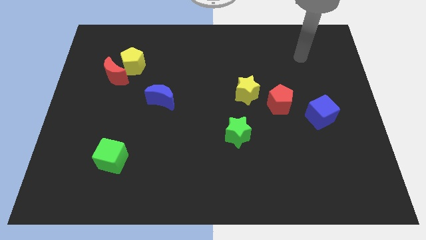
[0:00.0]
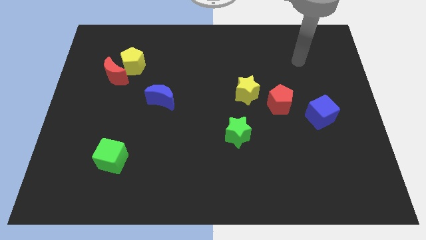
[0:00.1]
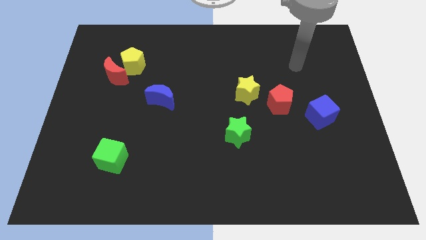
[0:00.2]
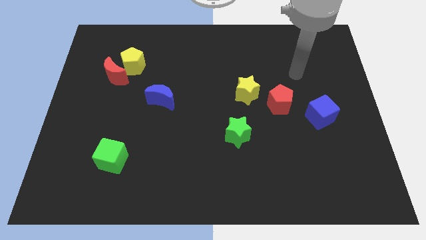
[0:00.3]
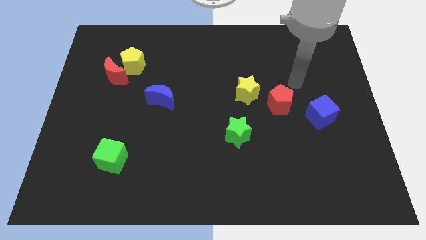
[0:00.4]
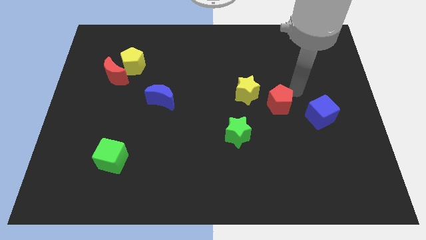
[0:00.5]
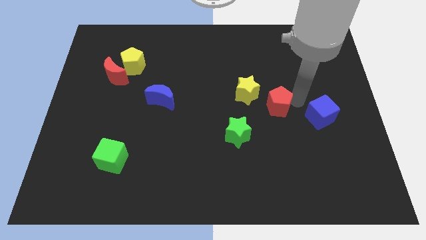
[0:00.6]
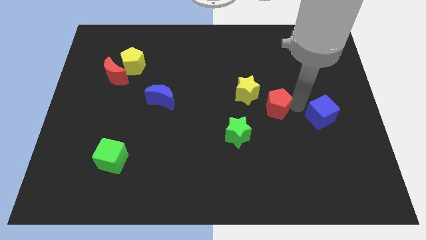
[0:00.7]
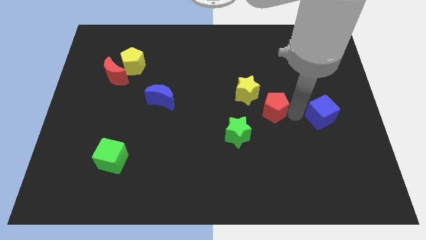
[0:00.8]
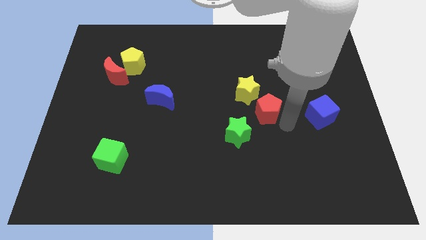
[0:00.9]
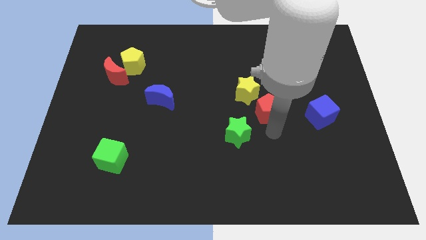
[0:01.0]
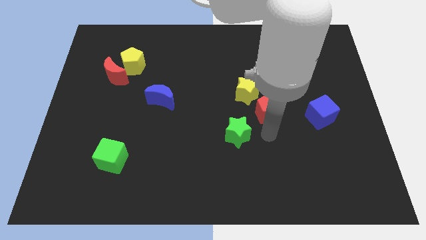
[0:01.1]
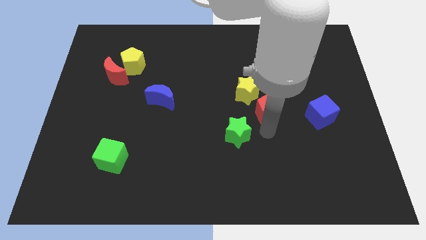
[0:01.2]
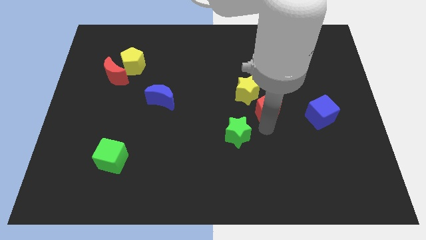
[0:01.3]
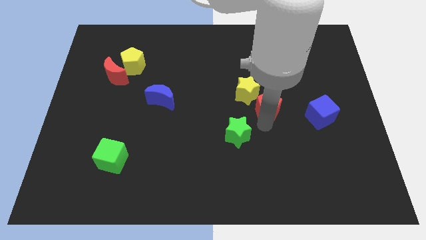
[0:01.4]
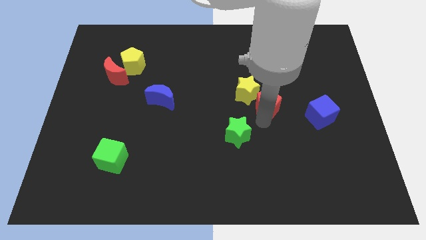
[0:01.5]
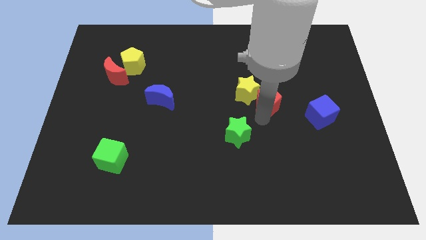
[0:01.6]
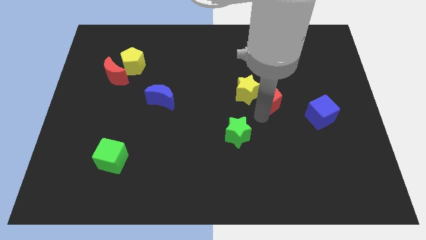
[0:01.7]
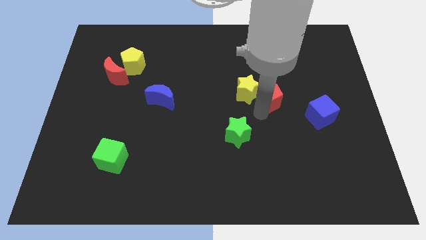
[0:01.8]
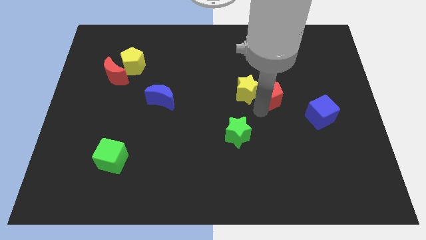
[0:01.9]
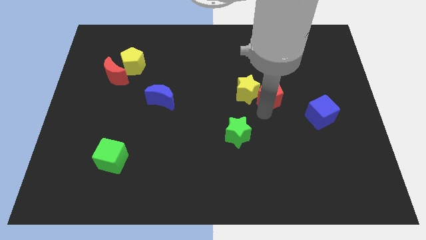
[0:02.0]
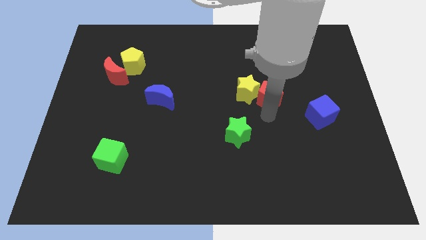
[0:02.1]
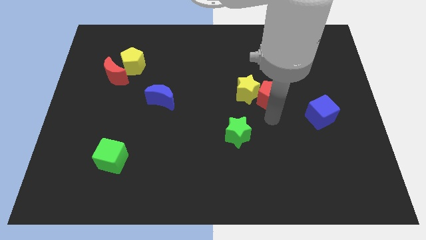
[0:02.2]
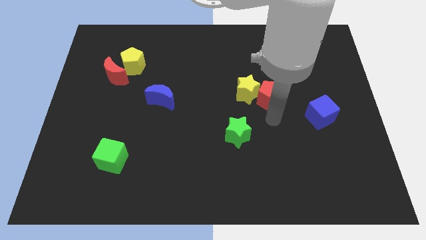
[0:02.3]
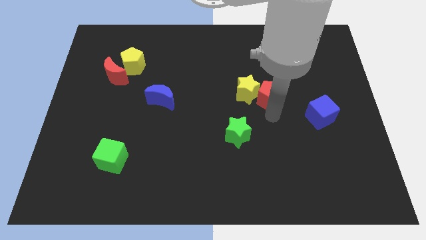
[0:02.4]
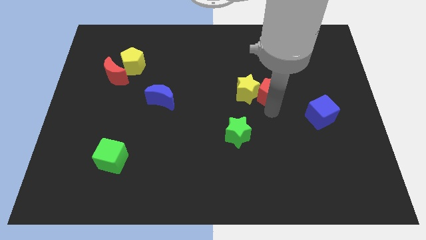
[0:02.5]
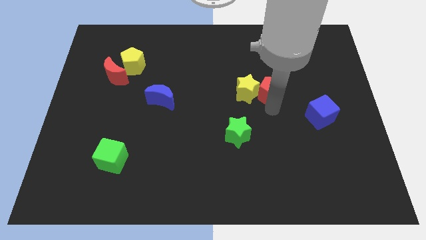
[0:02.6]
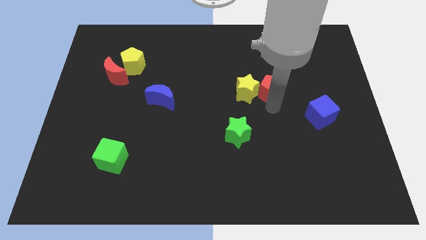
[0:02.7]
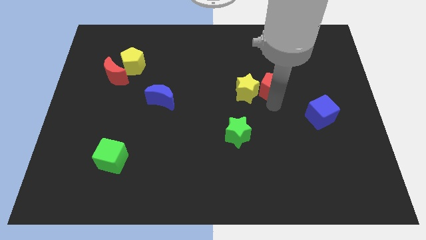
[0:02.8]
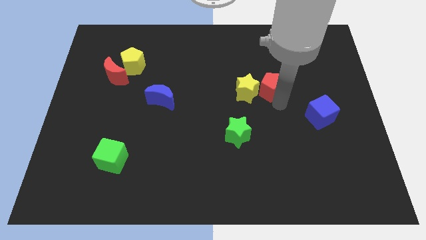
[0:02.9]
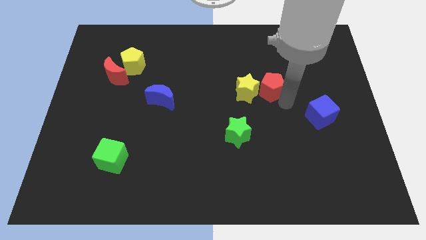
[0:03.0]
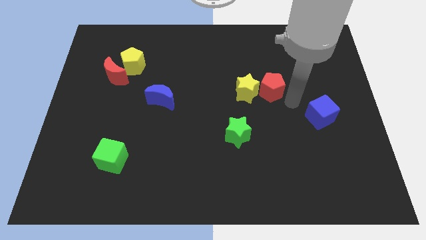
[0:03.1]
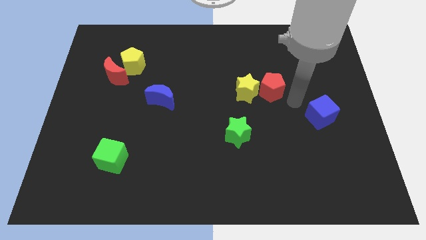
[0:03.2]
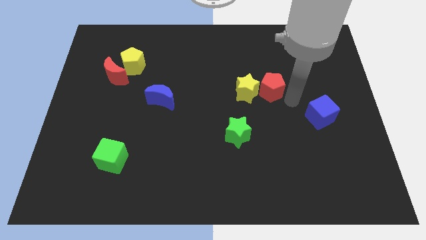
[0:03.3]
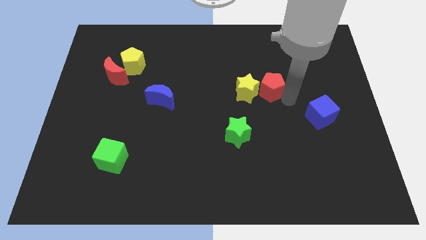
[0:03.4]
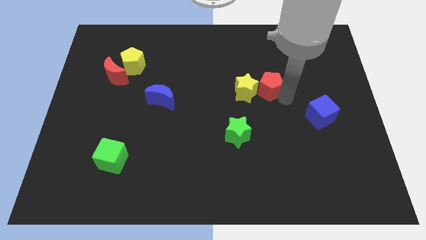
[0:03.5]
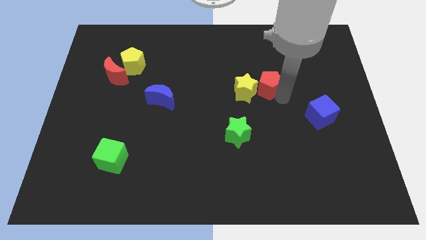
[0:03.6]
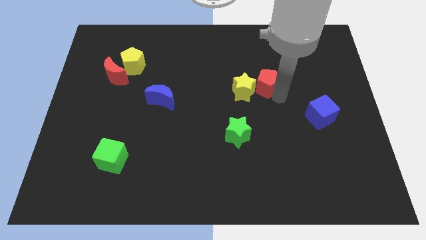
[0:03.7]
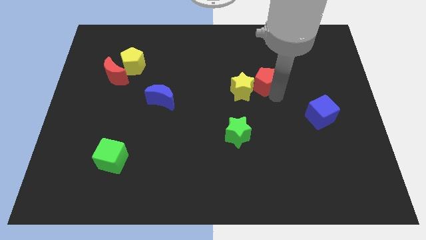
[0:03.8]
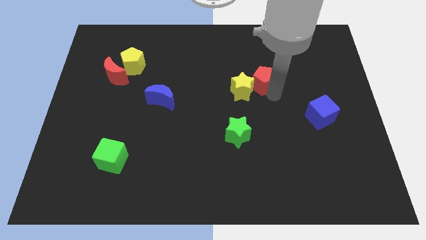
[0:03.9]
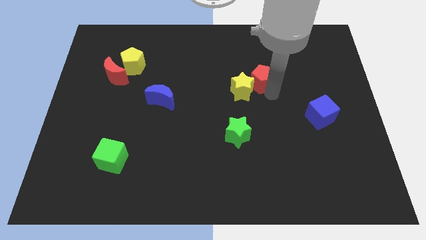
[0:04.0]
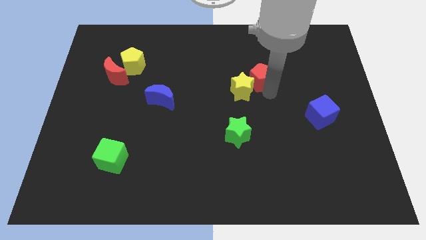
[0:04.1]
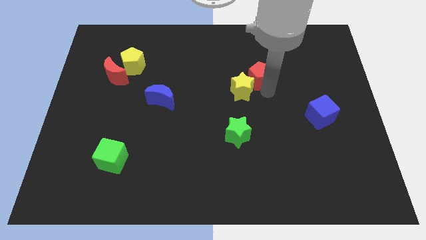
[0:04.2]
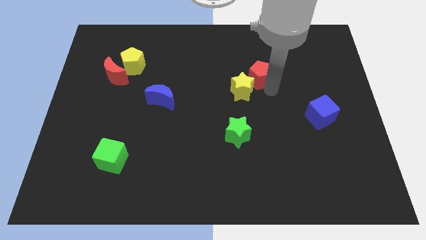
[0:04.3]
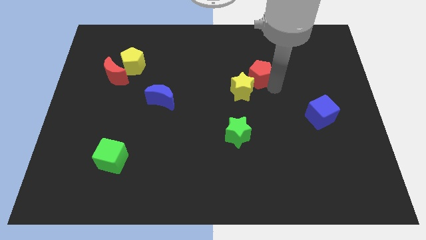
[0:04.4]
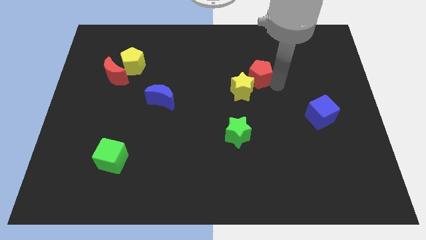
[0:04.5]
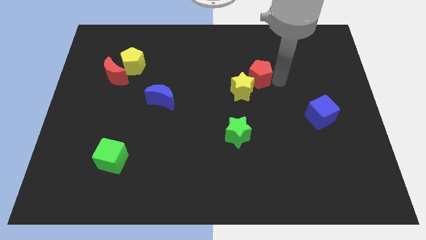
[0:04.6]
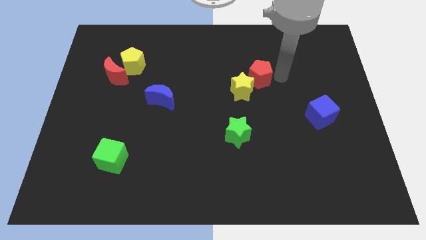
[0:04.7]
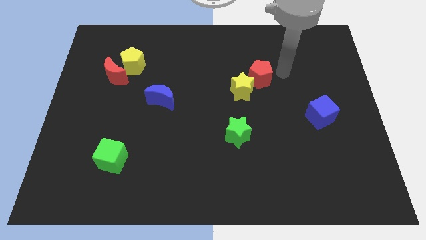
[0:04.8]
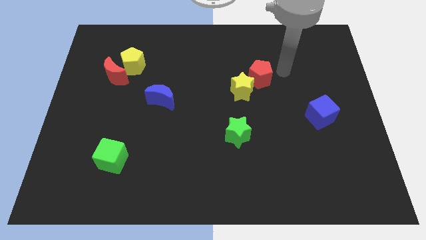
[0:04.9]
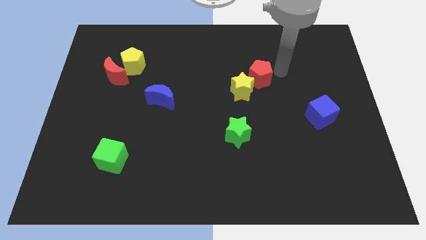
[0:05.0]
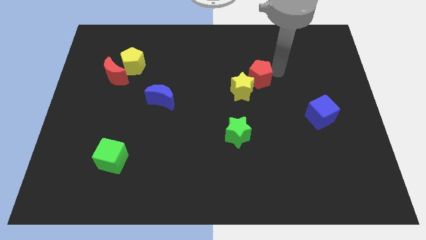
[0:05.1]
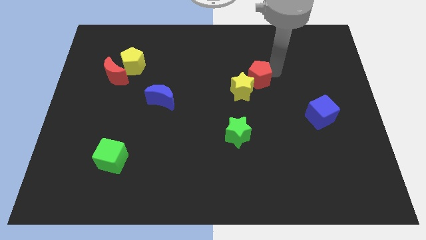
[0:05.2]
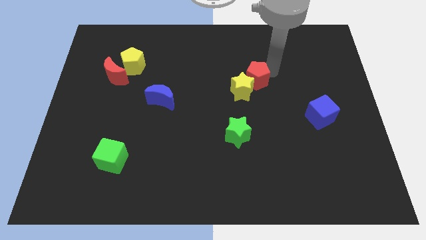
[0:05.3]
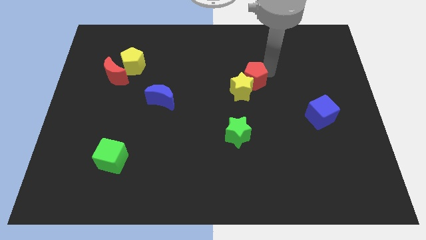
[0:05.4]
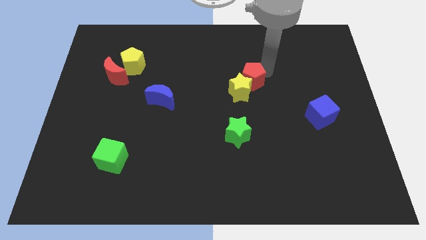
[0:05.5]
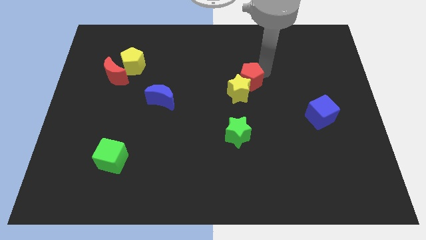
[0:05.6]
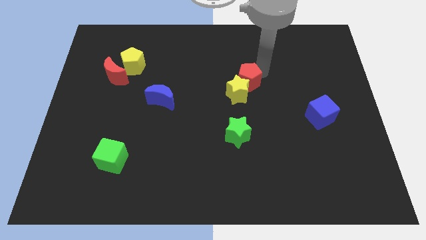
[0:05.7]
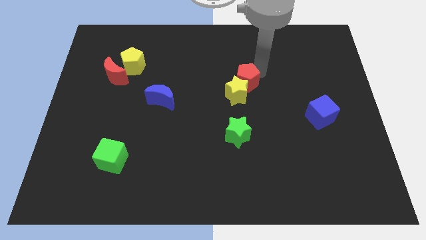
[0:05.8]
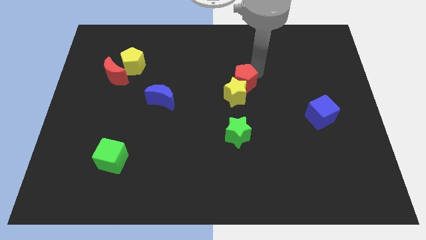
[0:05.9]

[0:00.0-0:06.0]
push the red pentagon to the top side of the green star

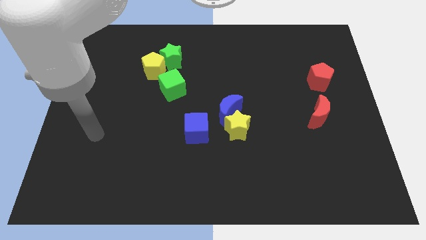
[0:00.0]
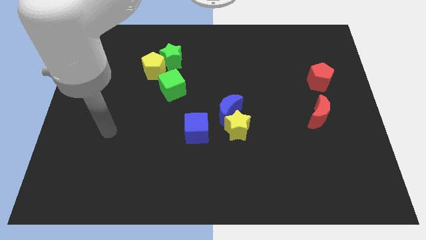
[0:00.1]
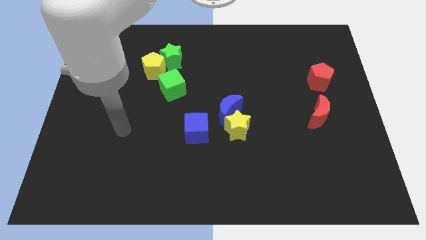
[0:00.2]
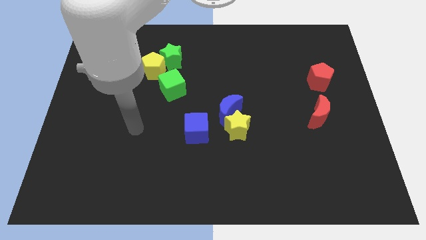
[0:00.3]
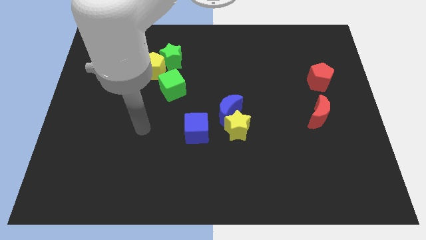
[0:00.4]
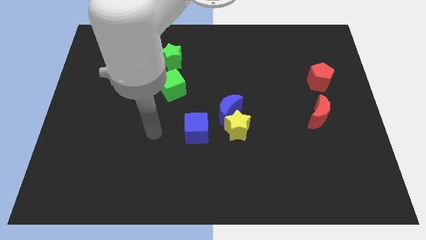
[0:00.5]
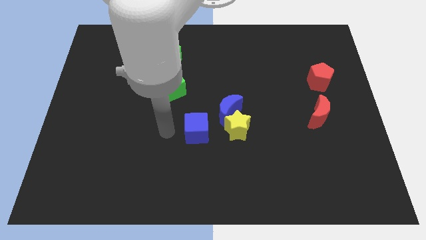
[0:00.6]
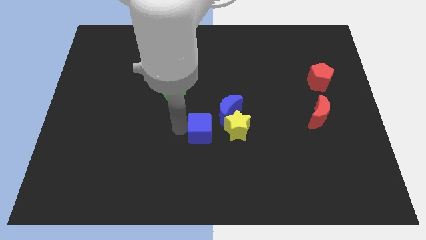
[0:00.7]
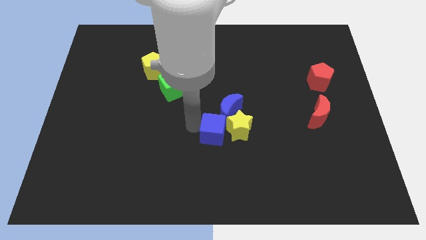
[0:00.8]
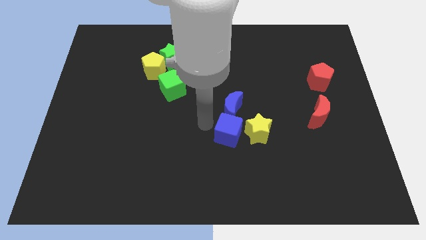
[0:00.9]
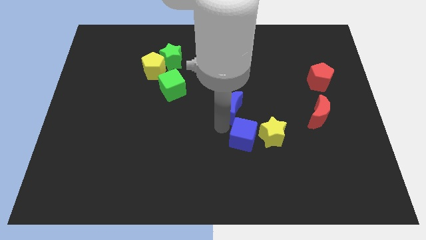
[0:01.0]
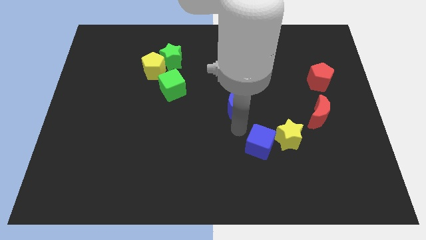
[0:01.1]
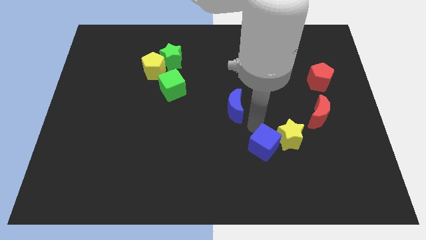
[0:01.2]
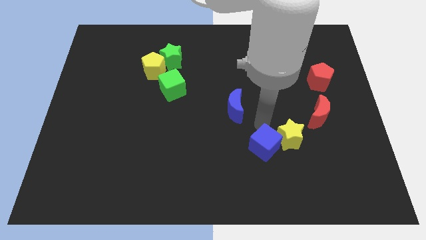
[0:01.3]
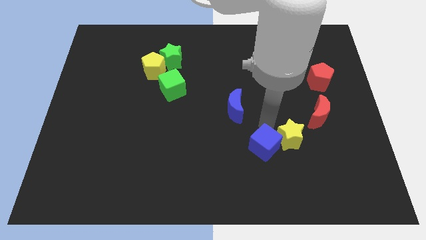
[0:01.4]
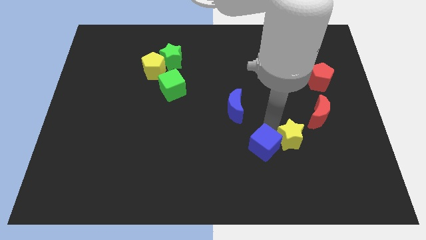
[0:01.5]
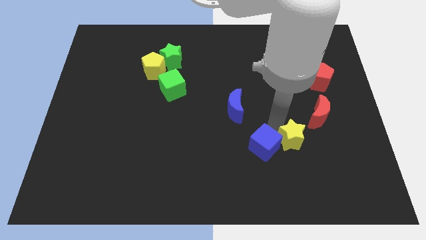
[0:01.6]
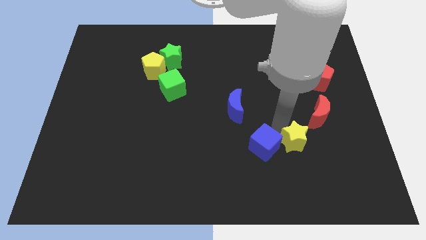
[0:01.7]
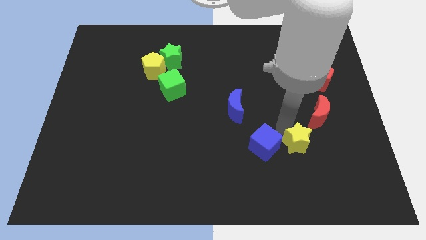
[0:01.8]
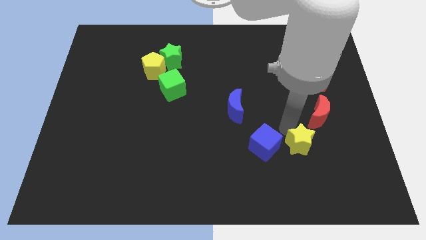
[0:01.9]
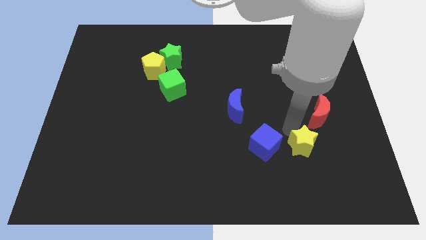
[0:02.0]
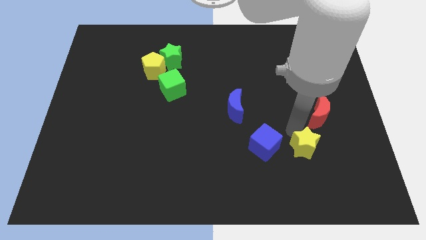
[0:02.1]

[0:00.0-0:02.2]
move the yellow star to the bottom of the red moon
